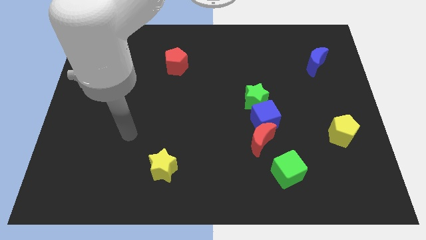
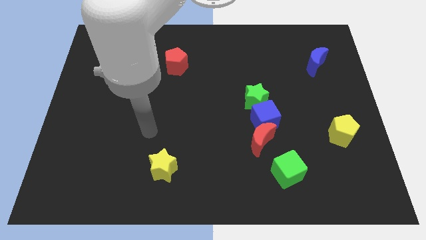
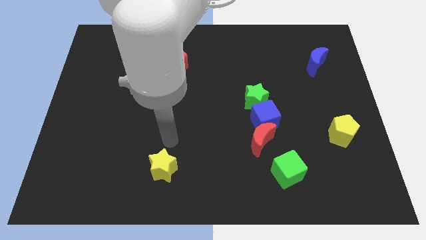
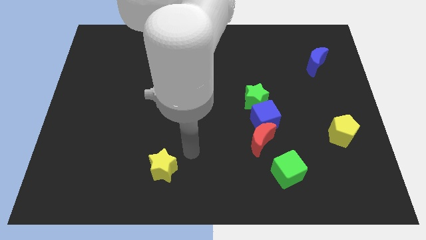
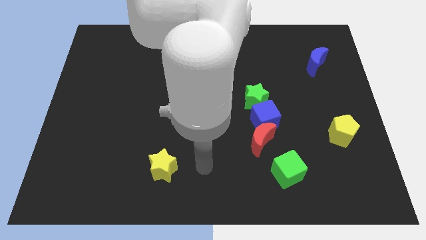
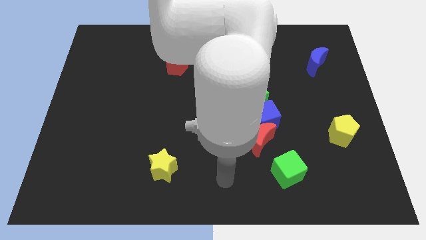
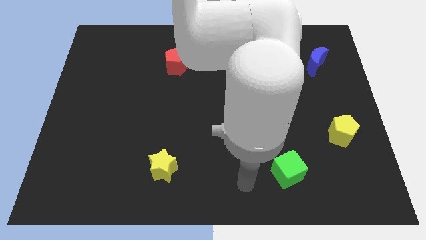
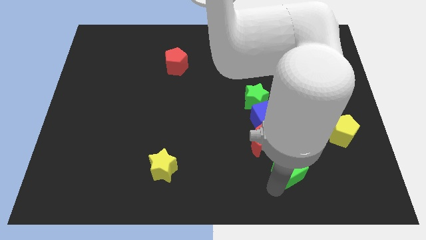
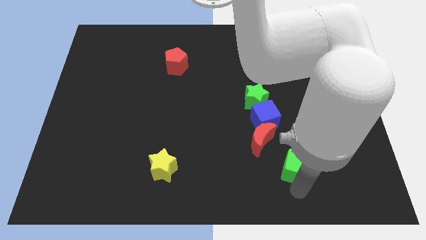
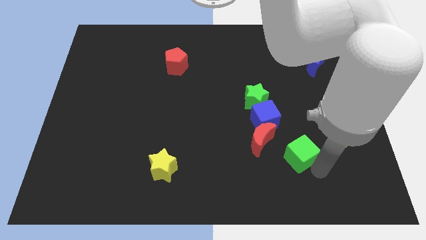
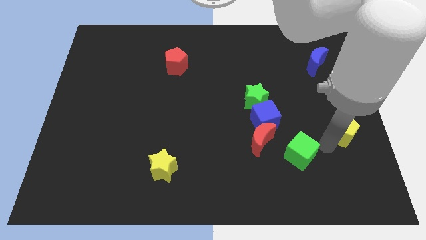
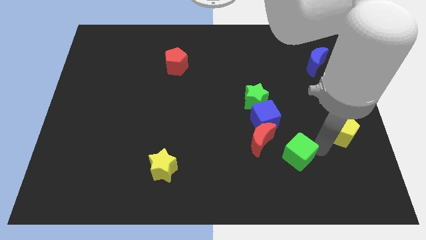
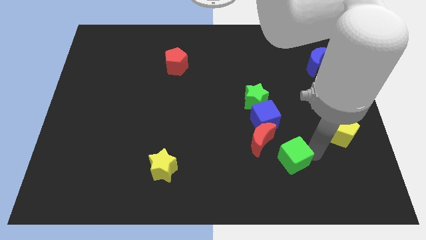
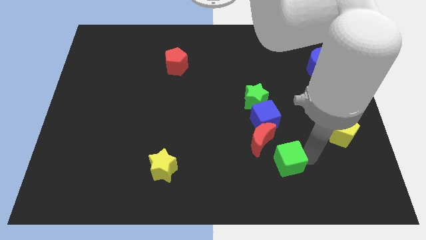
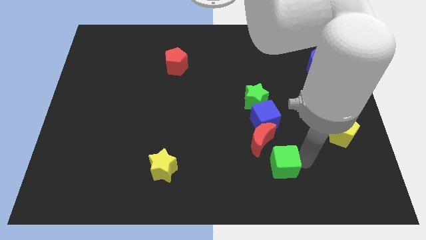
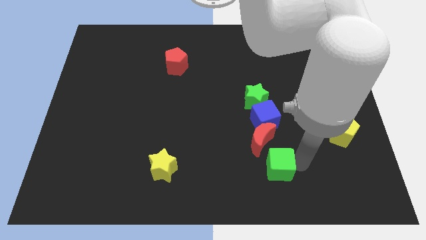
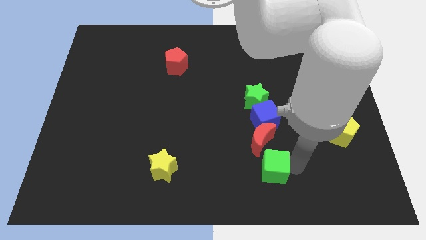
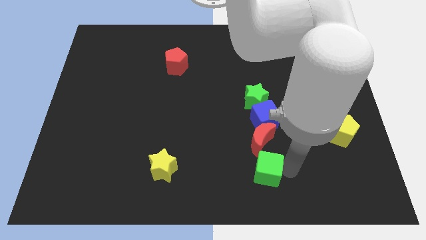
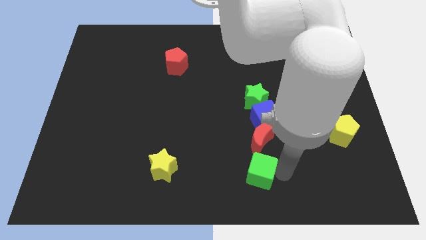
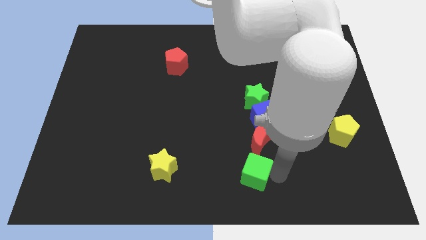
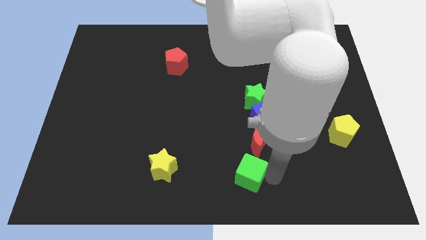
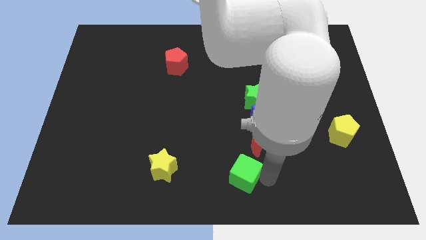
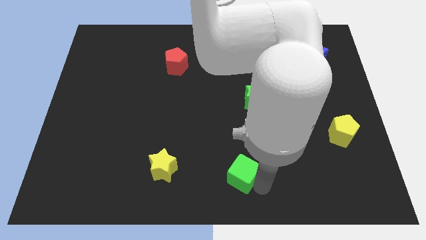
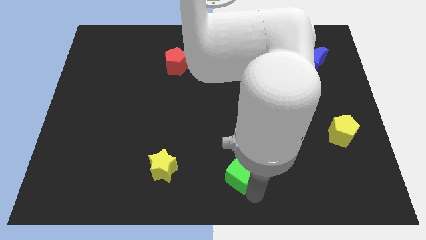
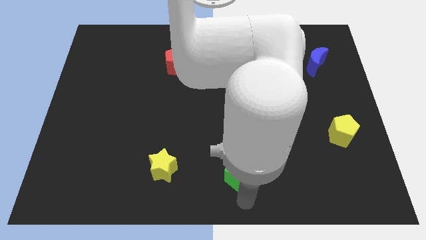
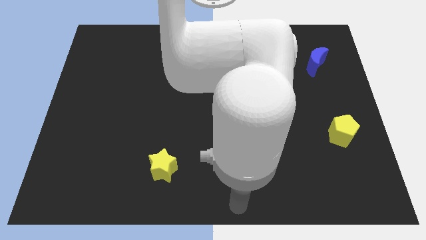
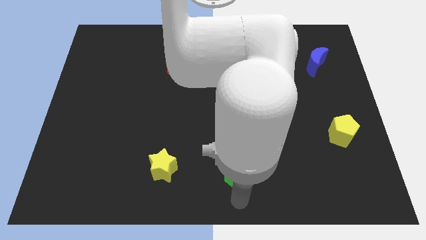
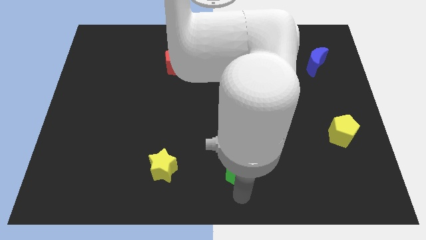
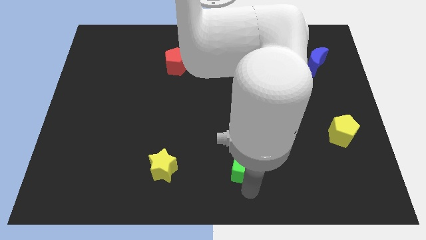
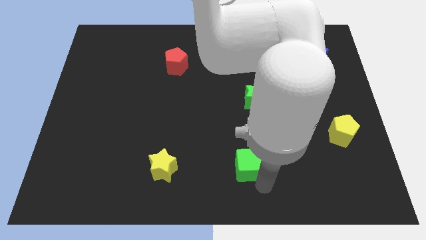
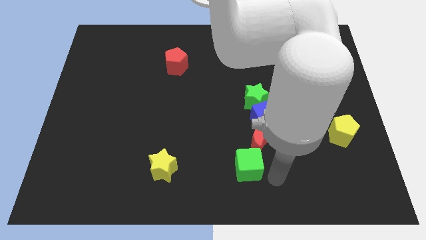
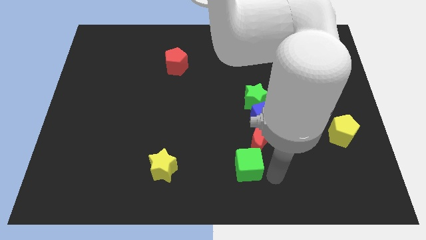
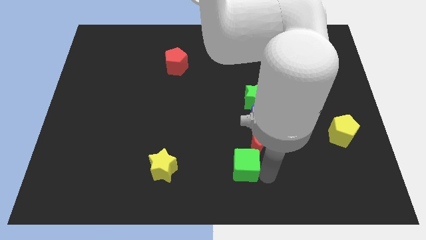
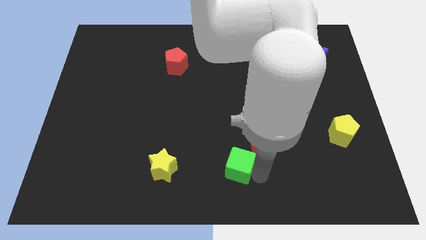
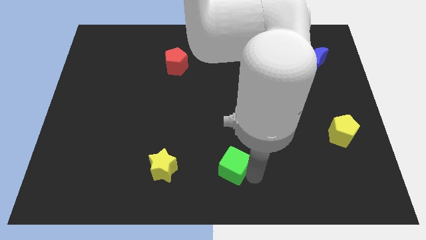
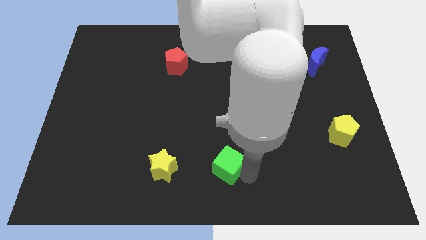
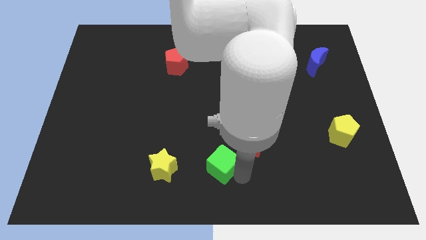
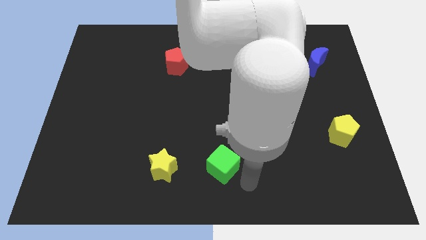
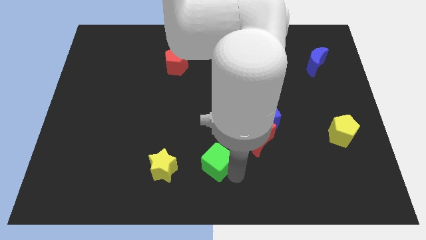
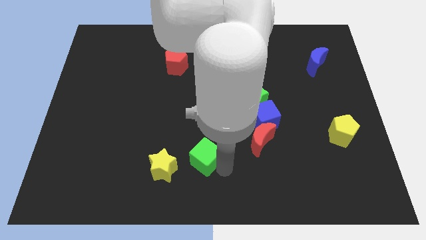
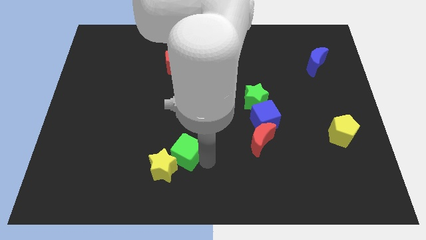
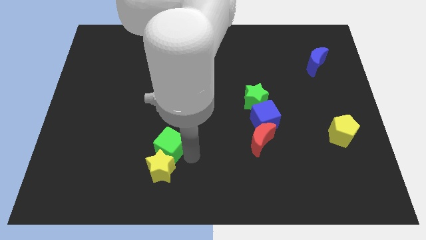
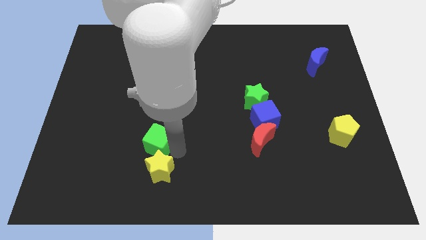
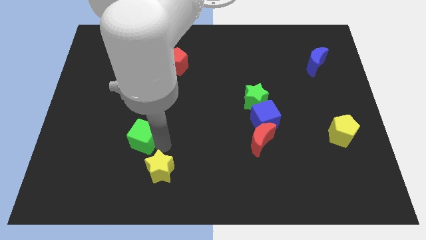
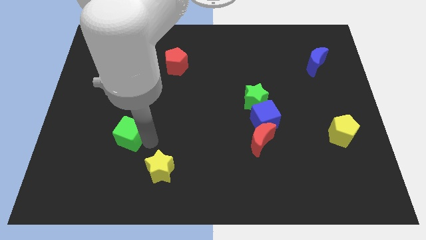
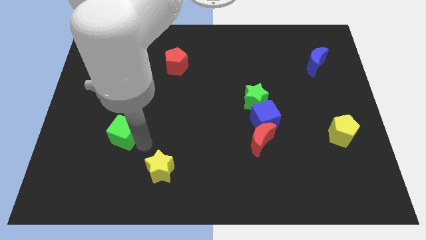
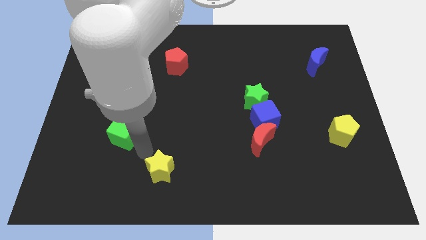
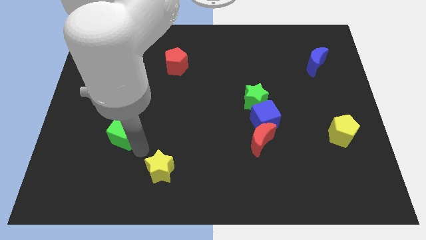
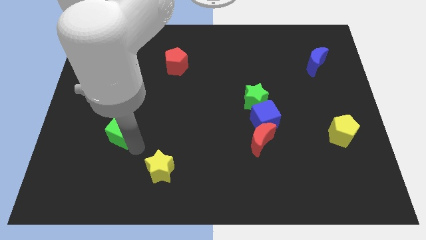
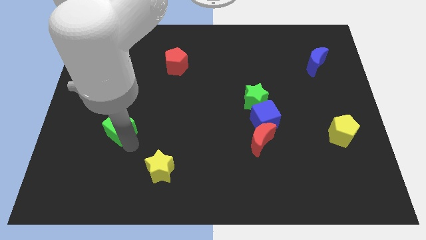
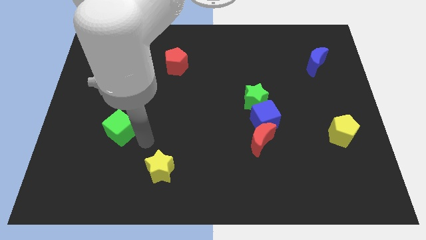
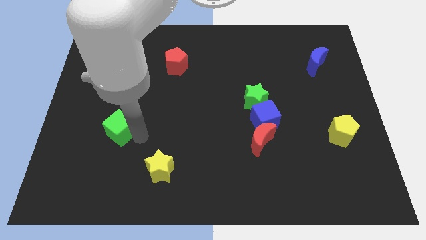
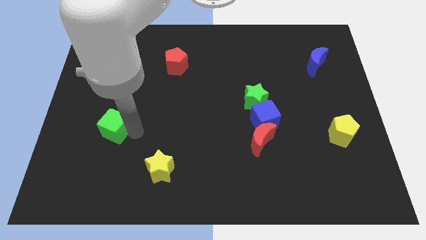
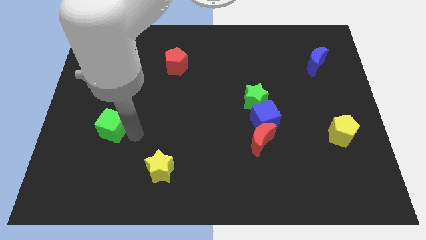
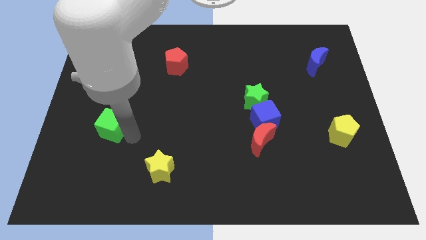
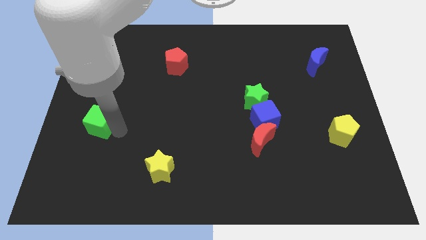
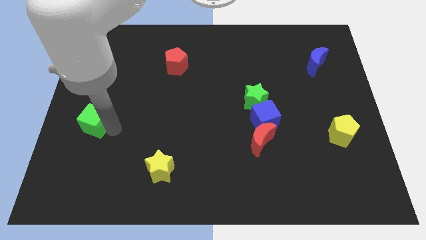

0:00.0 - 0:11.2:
slide the green cube to the center left

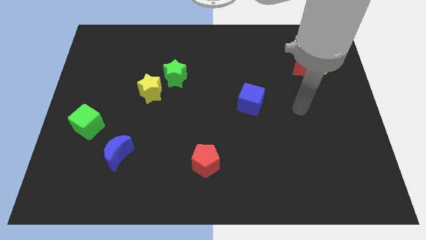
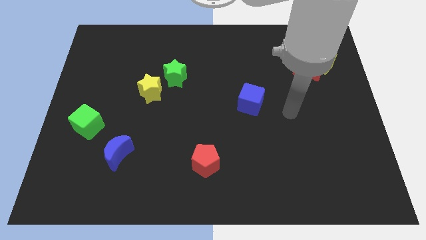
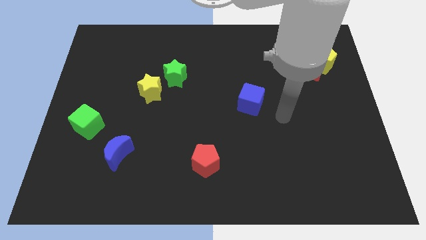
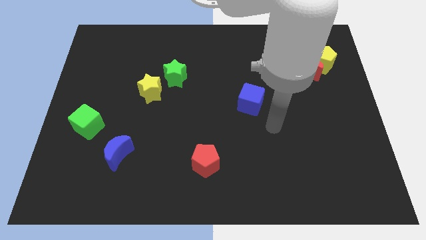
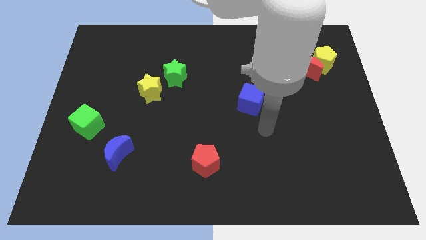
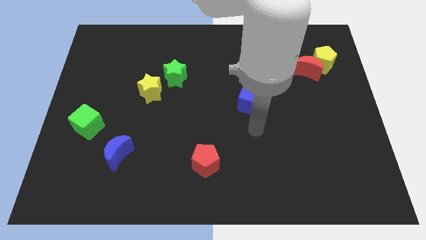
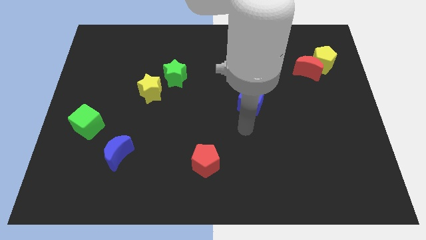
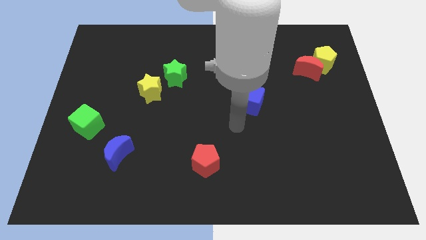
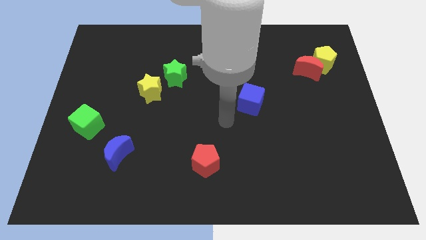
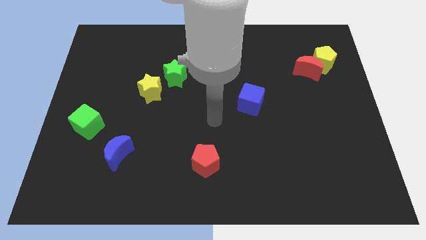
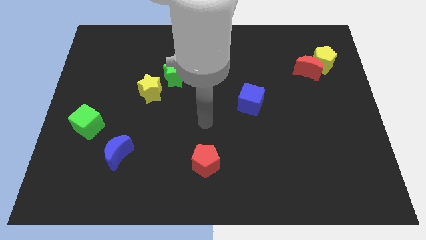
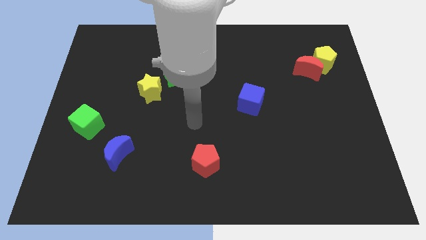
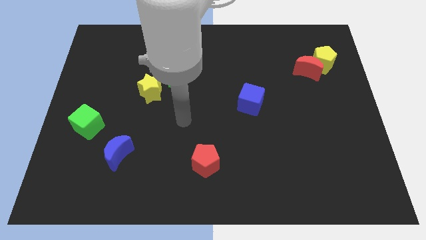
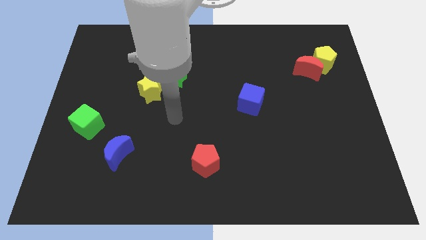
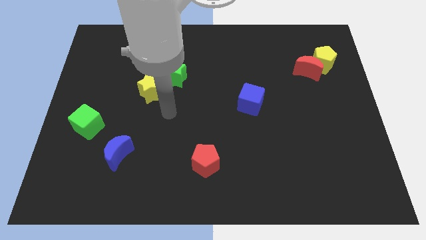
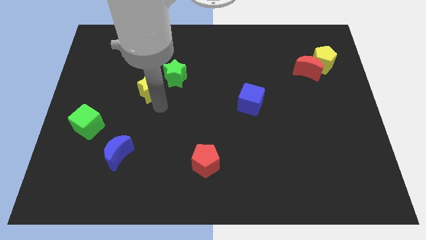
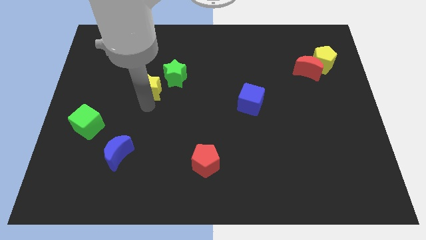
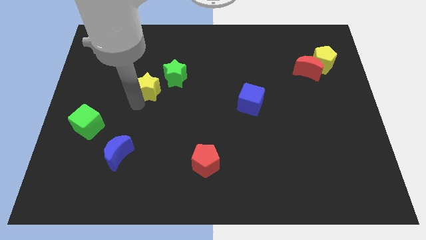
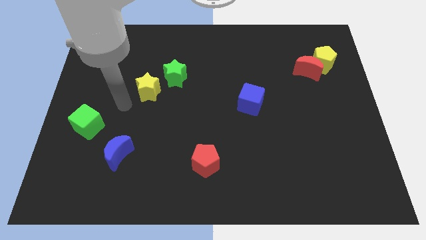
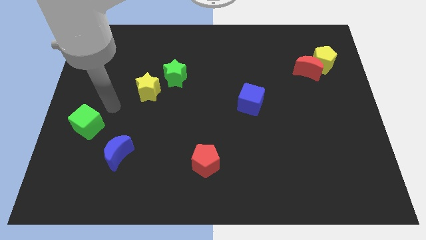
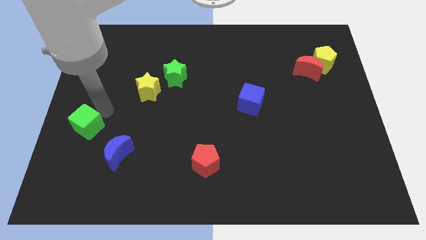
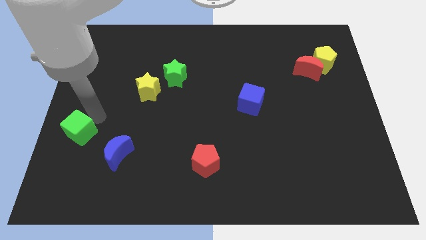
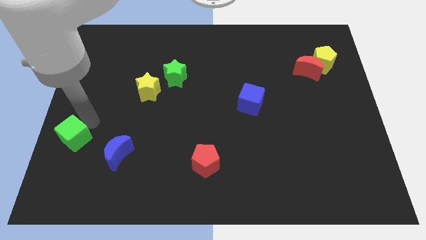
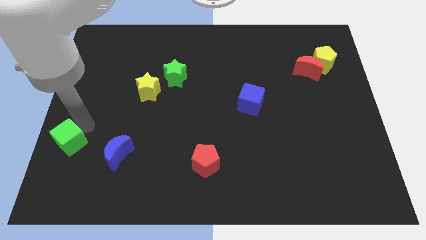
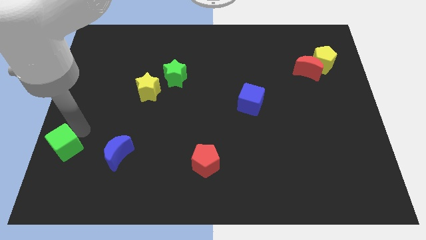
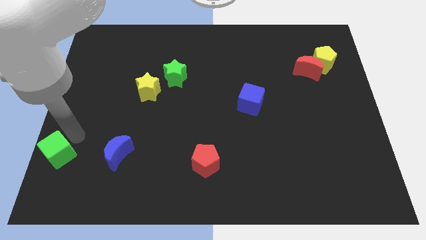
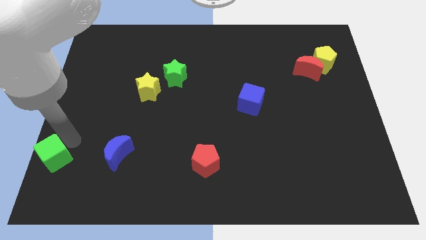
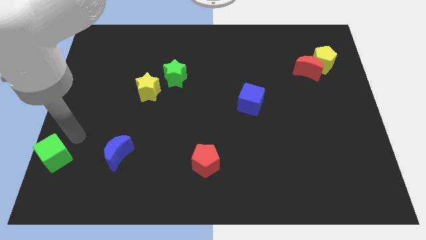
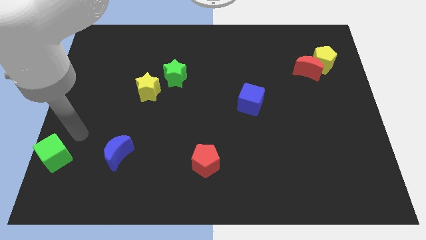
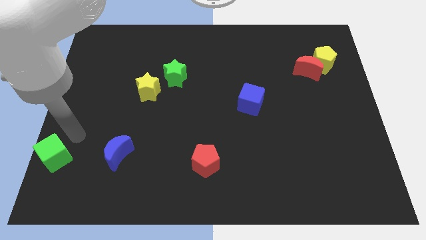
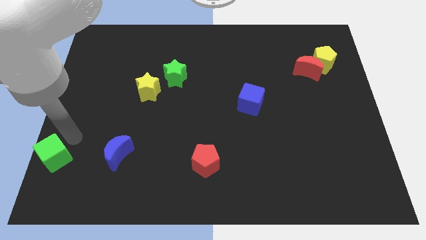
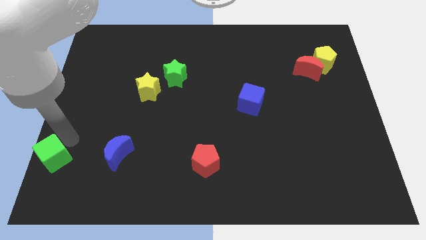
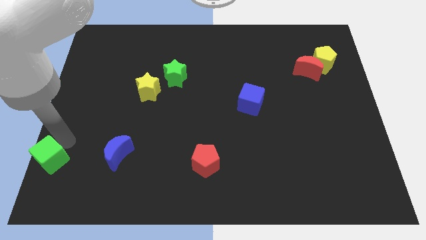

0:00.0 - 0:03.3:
slide the green cube to the bottom left of the board
